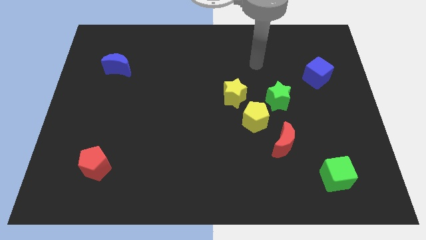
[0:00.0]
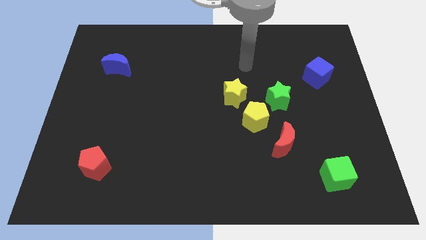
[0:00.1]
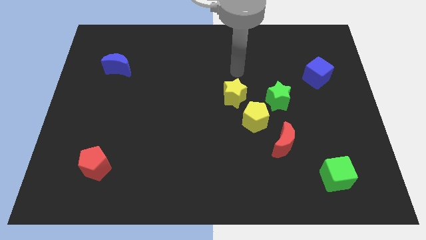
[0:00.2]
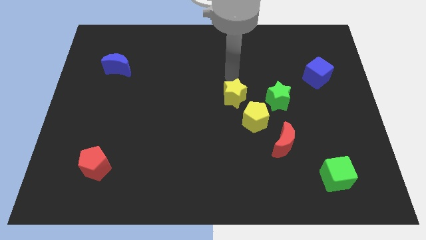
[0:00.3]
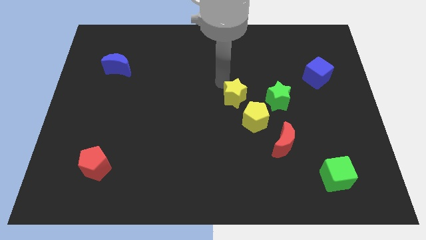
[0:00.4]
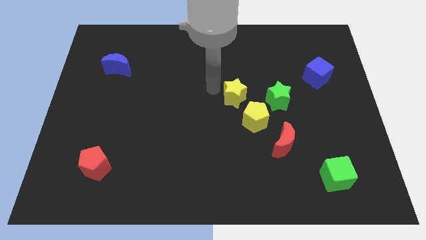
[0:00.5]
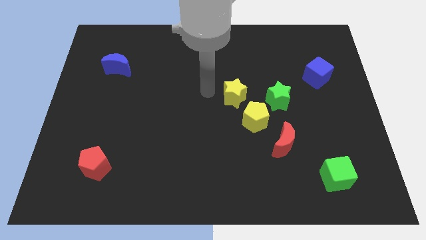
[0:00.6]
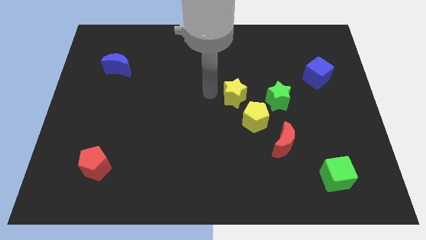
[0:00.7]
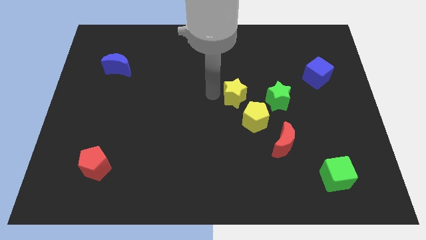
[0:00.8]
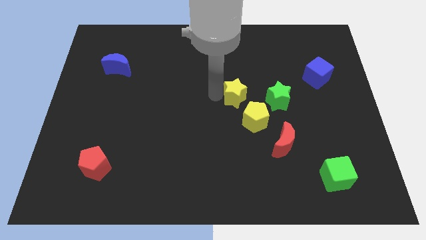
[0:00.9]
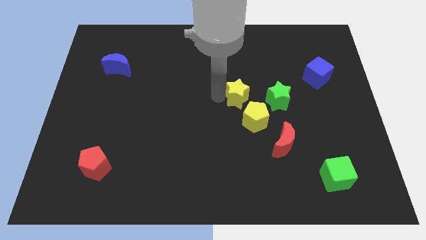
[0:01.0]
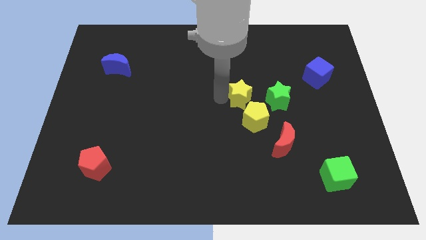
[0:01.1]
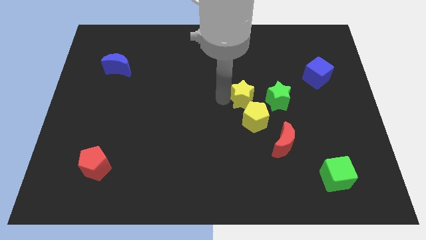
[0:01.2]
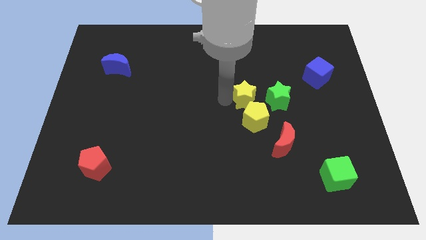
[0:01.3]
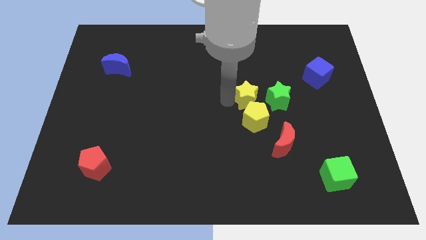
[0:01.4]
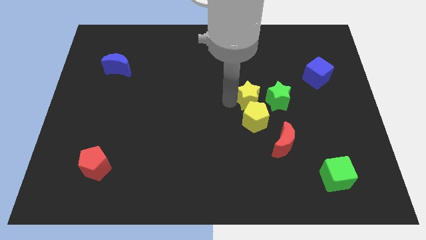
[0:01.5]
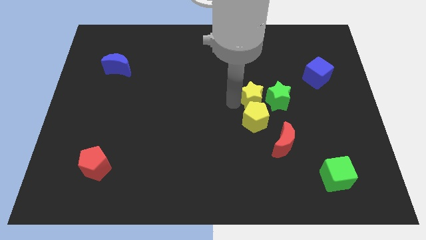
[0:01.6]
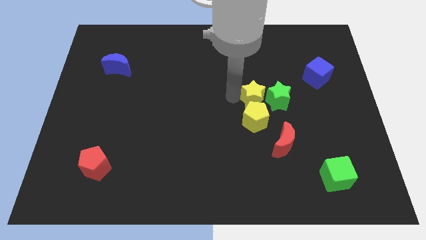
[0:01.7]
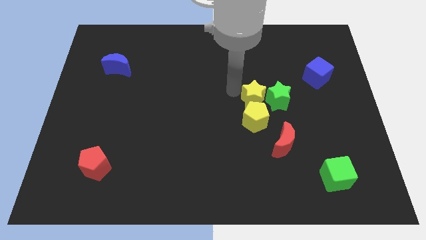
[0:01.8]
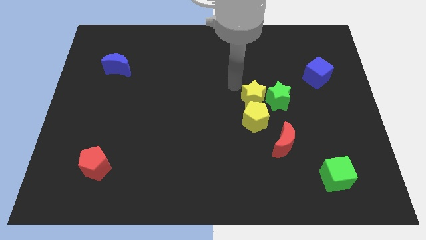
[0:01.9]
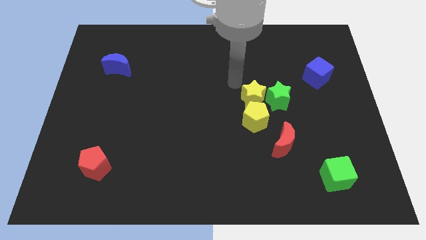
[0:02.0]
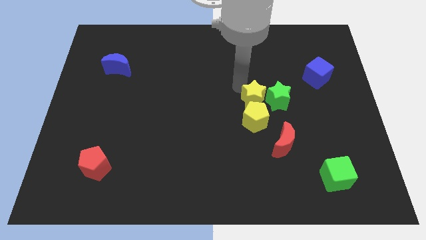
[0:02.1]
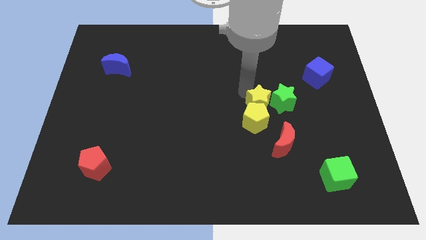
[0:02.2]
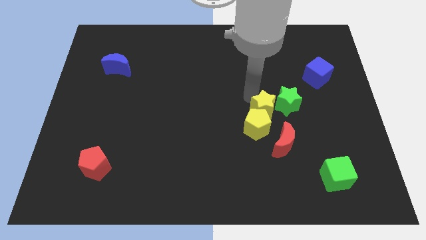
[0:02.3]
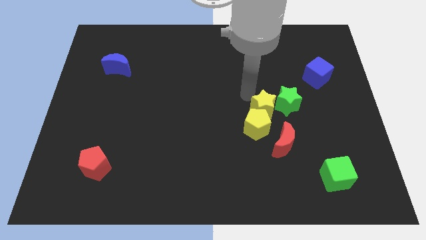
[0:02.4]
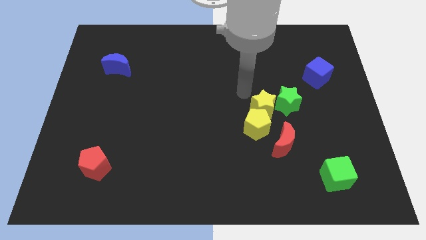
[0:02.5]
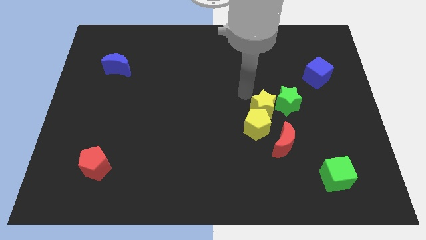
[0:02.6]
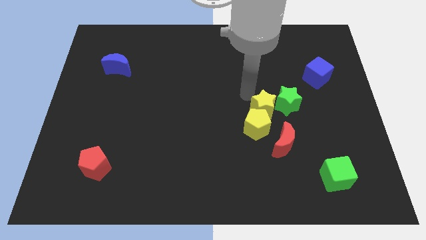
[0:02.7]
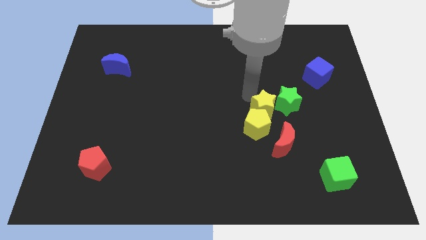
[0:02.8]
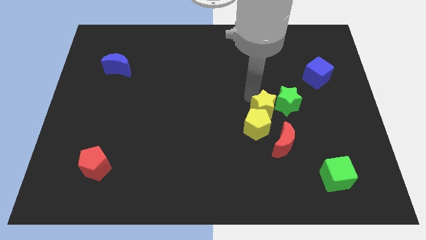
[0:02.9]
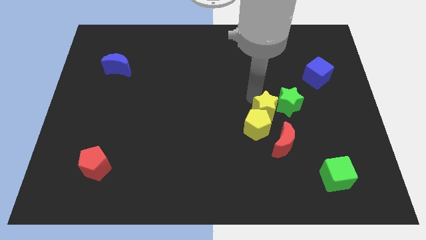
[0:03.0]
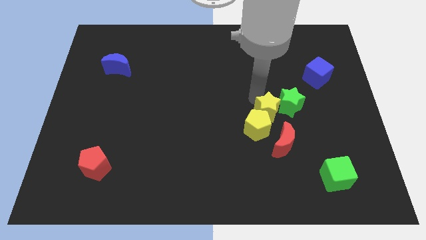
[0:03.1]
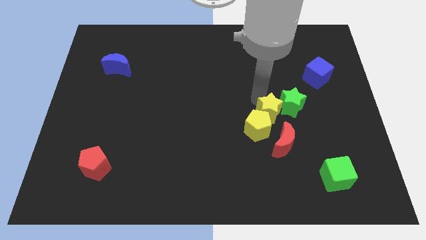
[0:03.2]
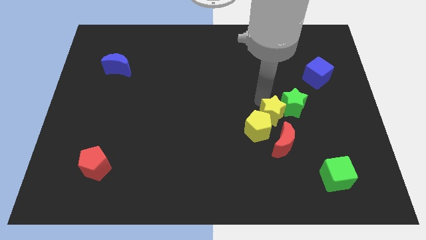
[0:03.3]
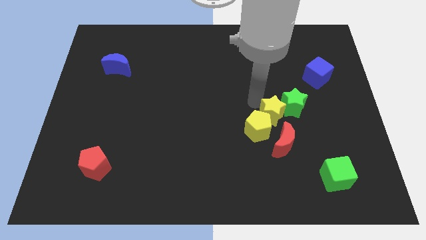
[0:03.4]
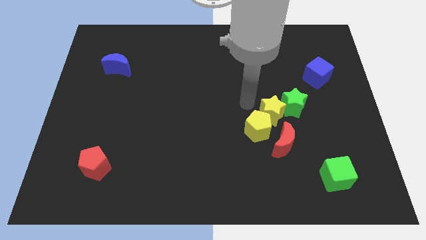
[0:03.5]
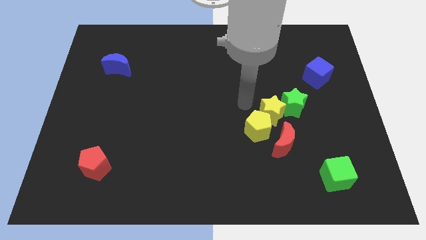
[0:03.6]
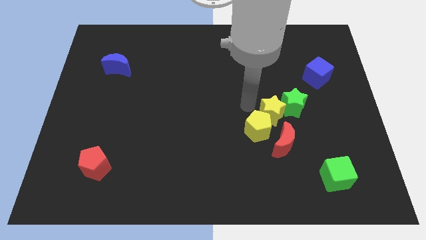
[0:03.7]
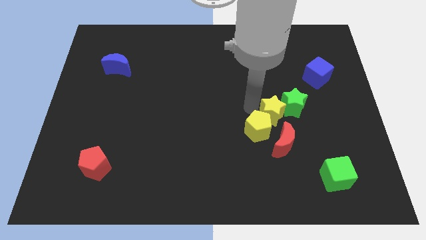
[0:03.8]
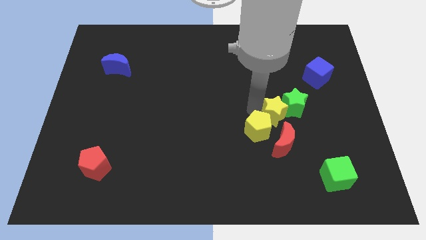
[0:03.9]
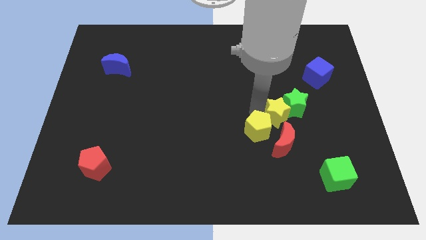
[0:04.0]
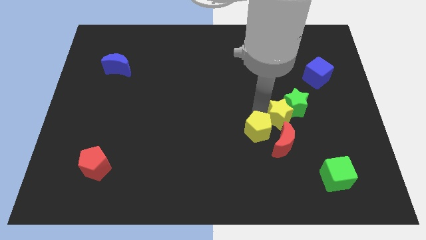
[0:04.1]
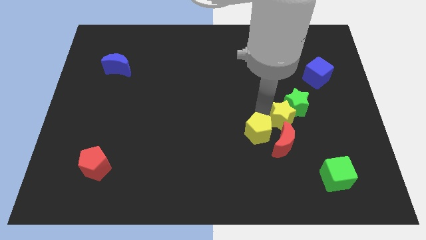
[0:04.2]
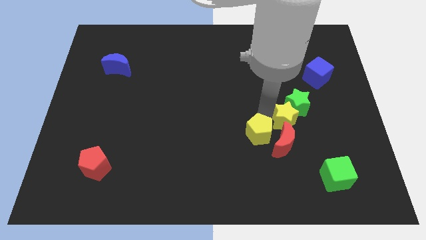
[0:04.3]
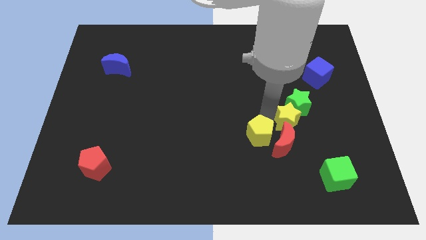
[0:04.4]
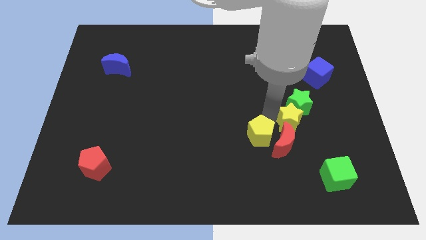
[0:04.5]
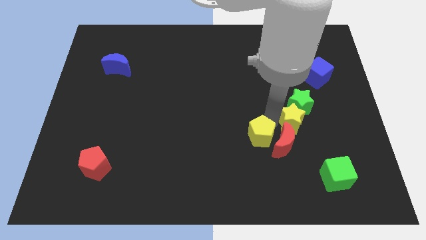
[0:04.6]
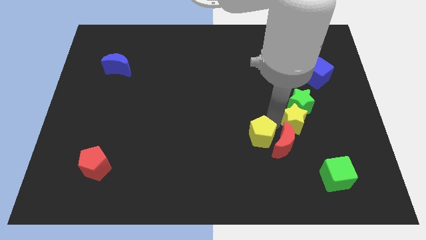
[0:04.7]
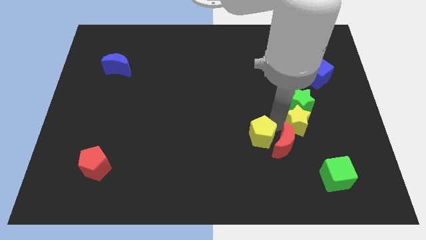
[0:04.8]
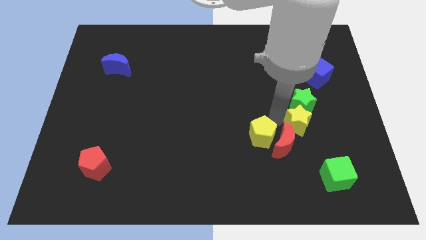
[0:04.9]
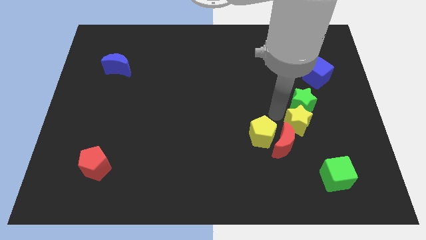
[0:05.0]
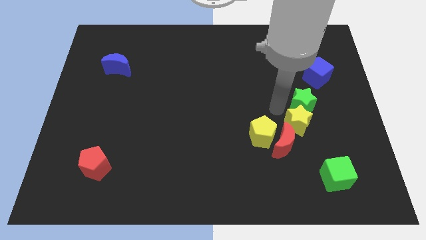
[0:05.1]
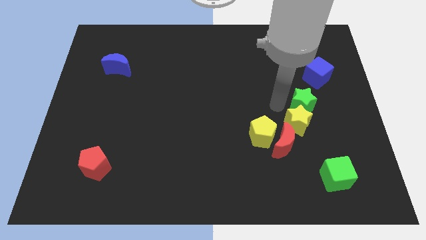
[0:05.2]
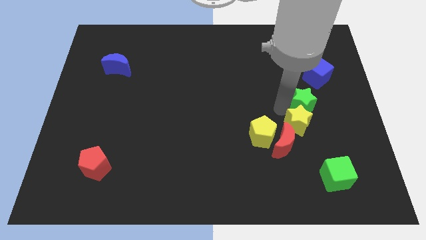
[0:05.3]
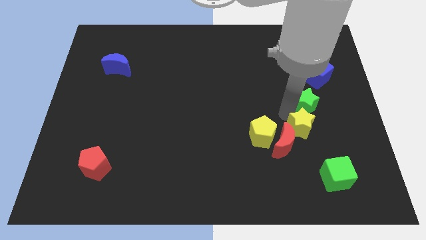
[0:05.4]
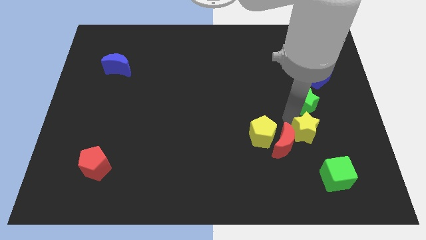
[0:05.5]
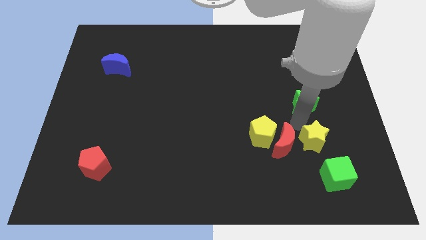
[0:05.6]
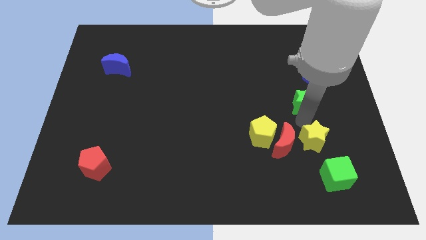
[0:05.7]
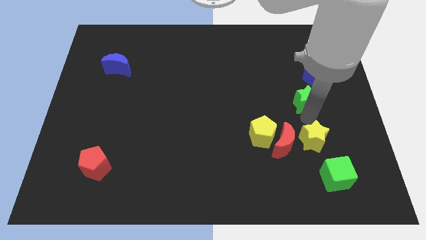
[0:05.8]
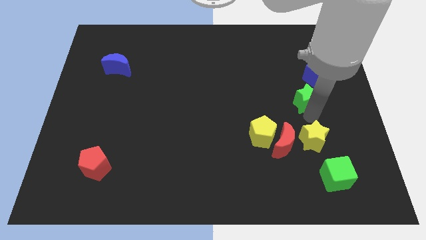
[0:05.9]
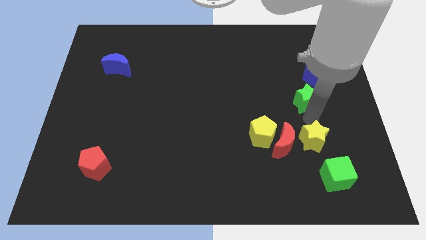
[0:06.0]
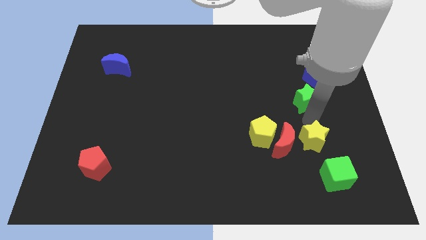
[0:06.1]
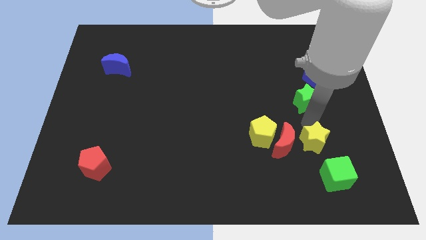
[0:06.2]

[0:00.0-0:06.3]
push the yellow star diagonally down and to the right of the red moon

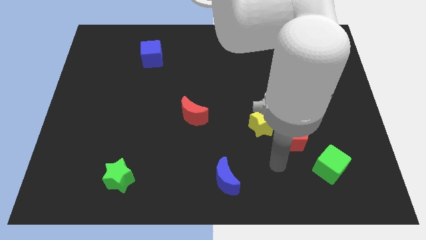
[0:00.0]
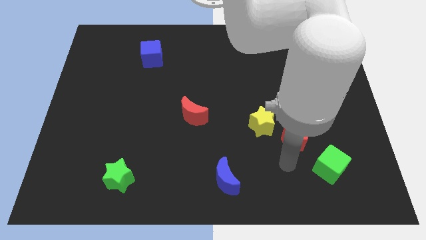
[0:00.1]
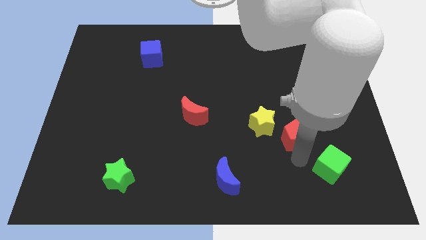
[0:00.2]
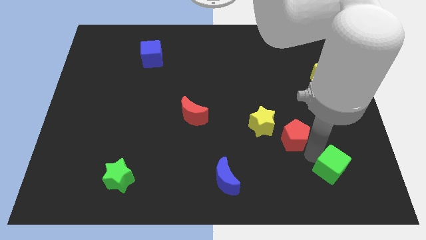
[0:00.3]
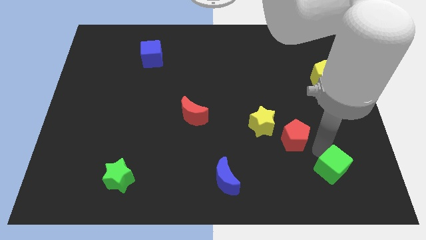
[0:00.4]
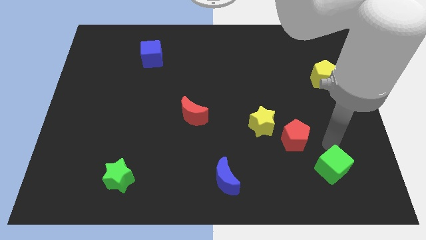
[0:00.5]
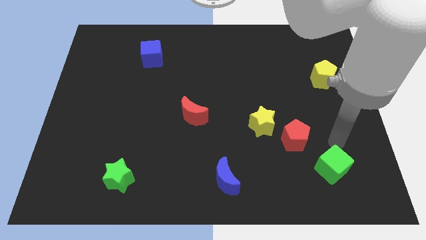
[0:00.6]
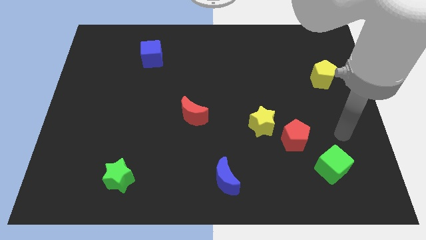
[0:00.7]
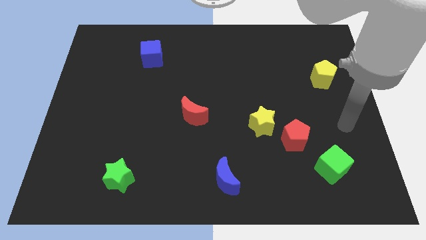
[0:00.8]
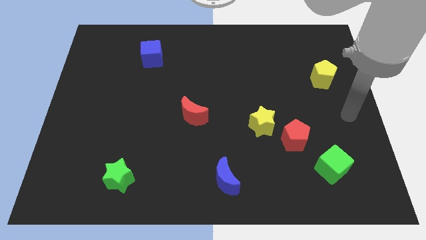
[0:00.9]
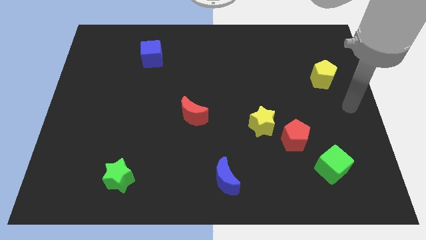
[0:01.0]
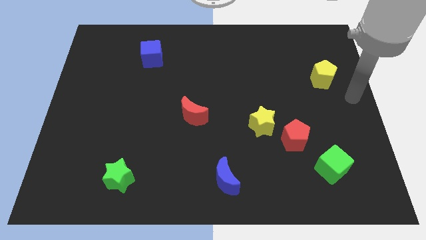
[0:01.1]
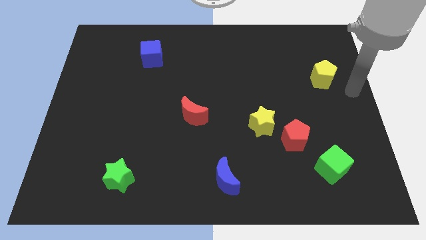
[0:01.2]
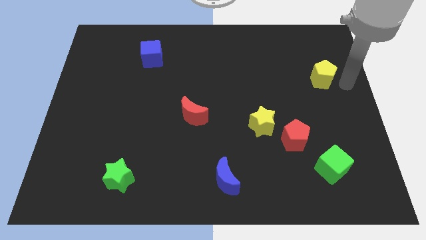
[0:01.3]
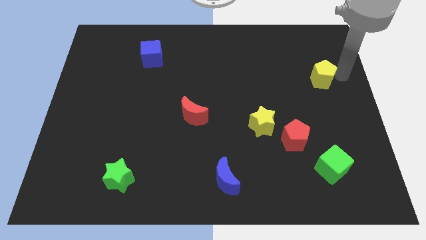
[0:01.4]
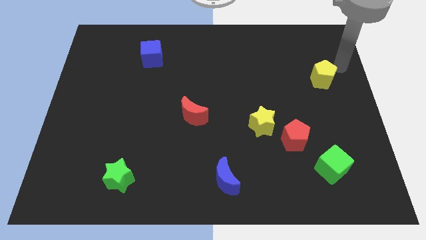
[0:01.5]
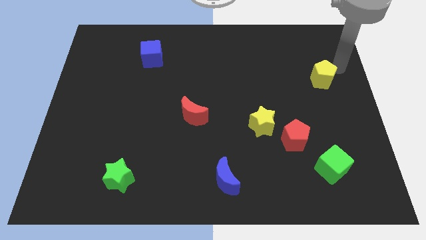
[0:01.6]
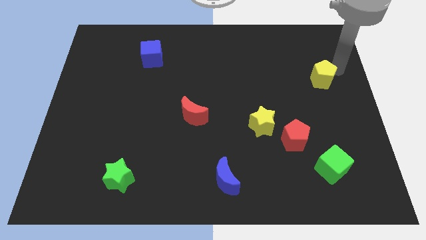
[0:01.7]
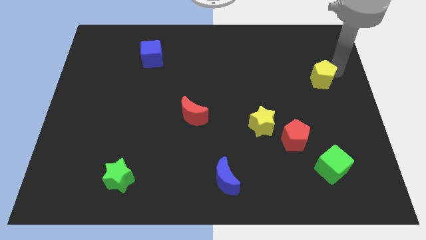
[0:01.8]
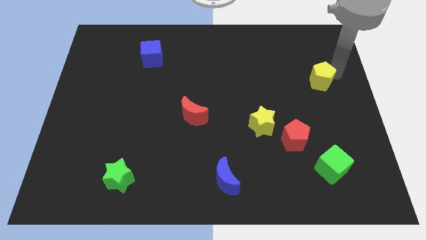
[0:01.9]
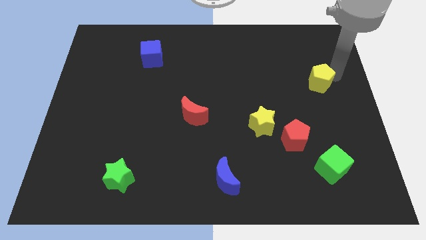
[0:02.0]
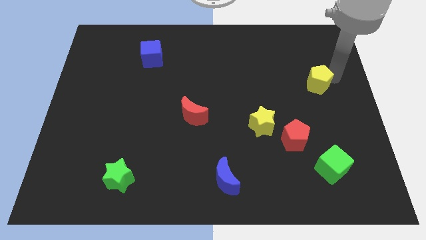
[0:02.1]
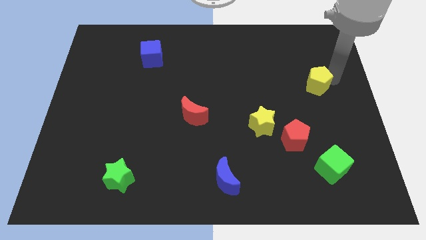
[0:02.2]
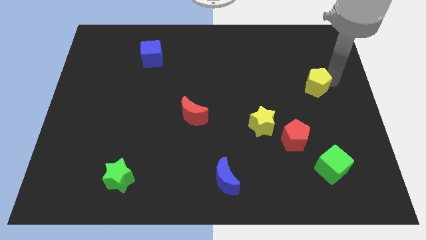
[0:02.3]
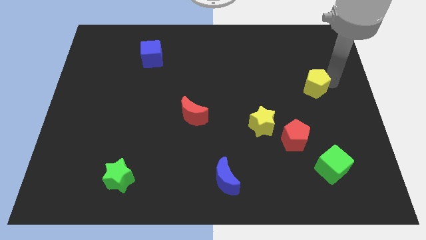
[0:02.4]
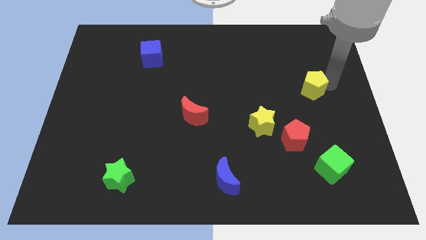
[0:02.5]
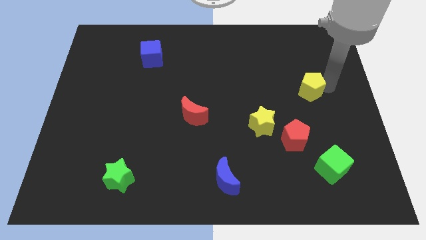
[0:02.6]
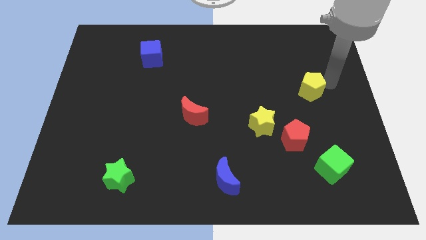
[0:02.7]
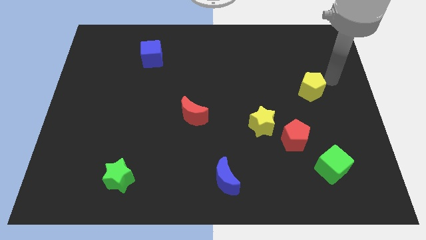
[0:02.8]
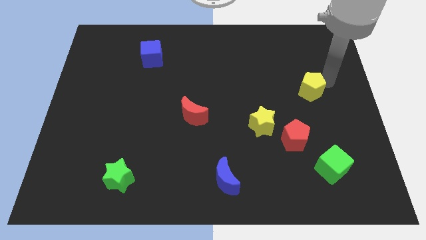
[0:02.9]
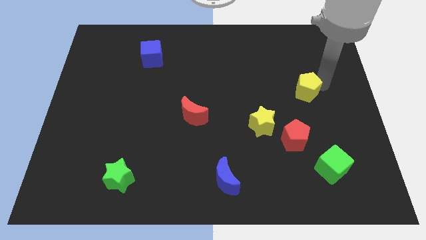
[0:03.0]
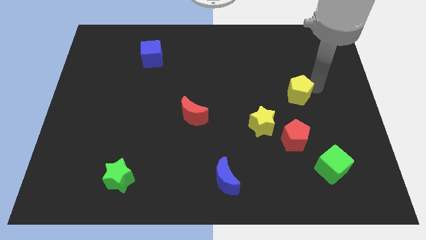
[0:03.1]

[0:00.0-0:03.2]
move the yellow pentagon above the red pentagon
